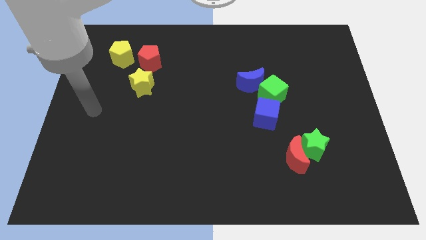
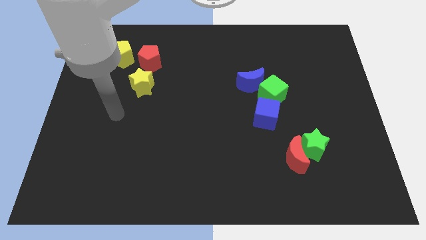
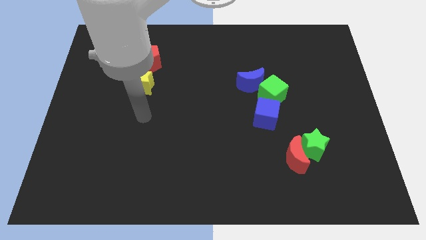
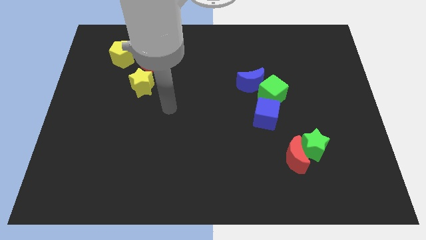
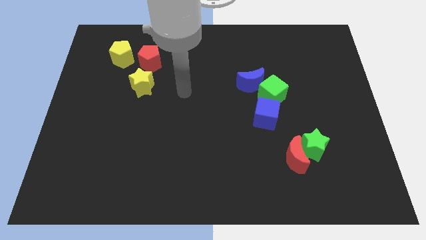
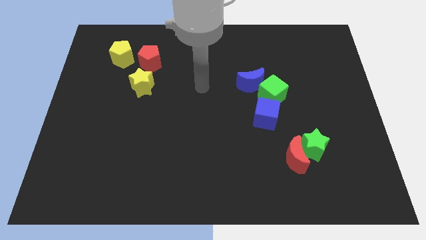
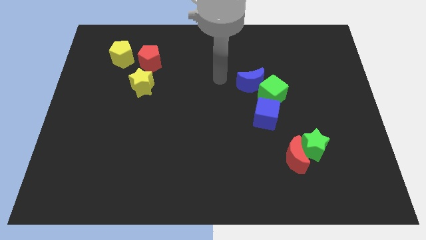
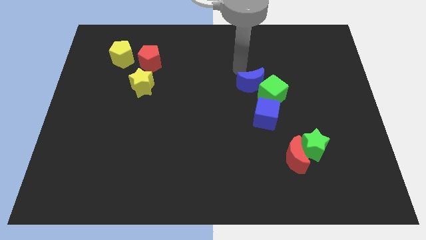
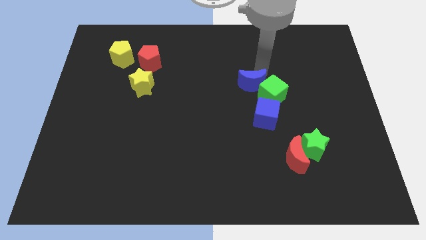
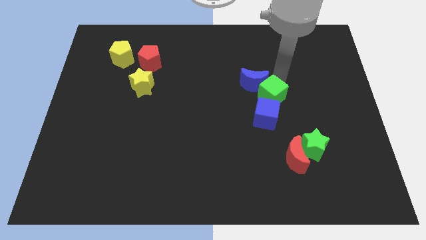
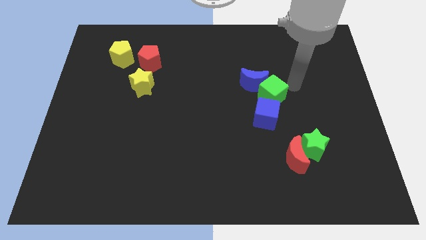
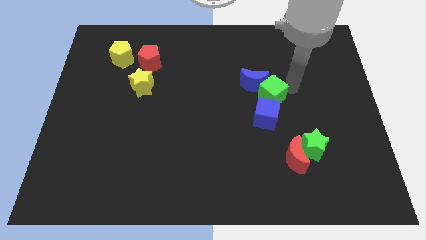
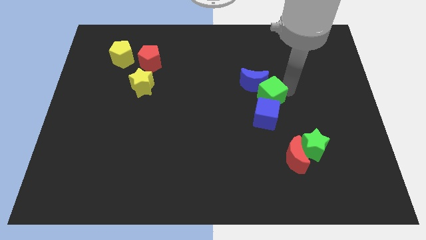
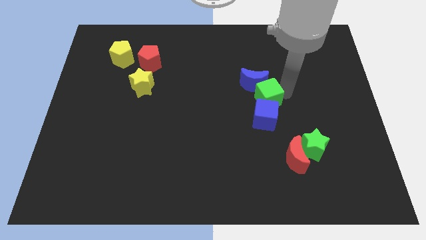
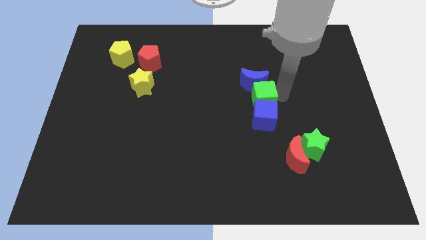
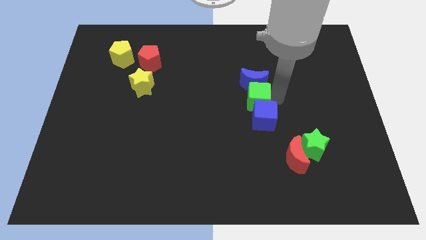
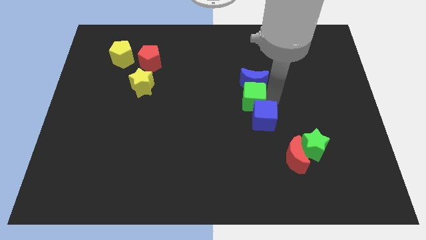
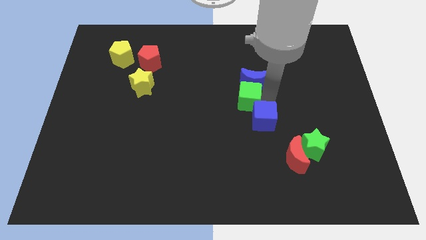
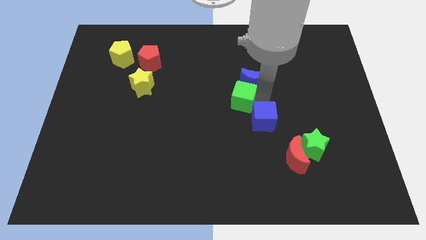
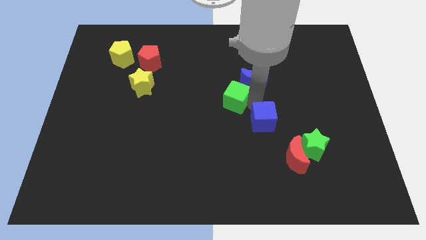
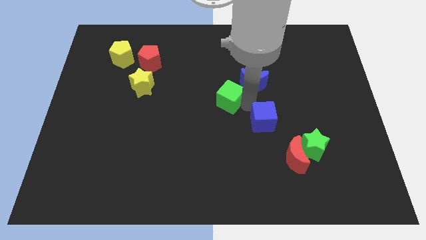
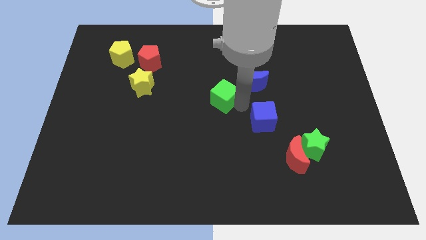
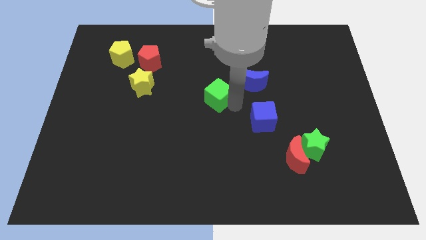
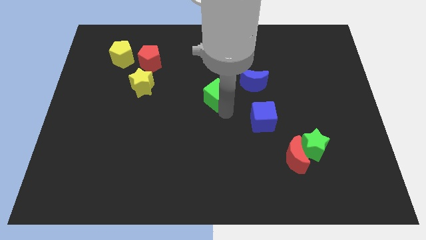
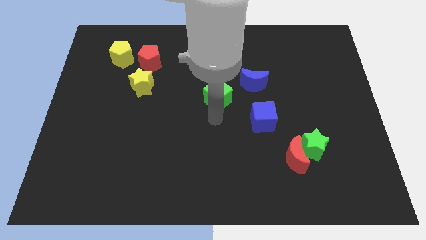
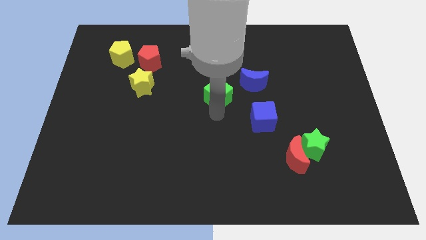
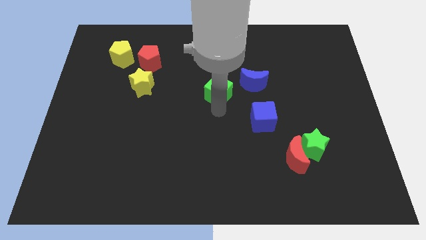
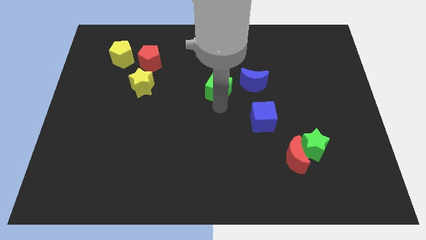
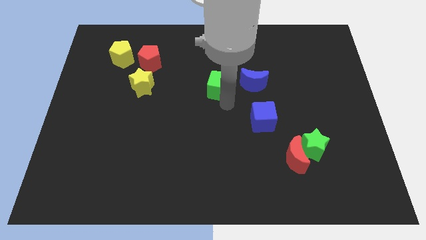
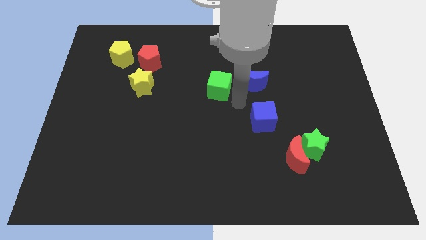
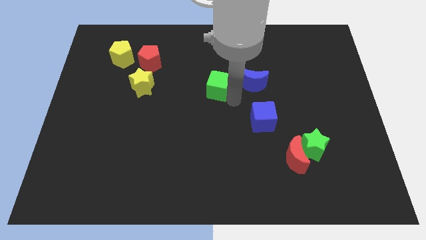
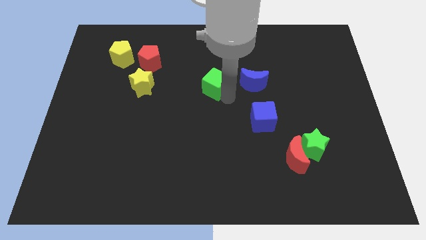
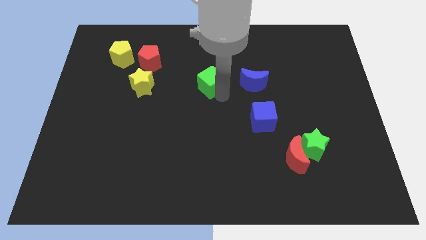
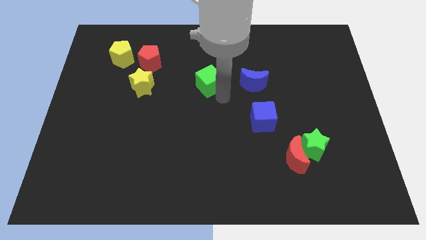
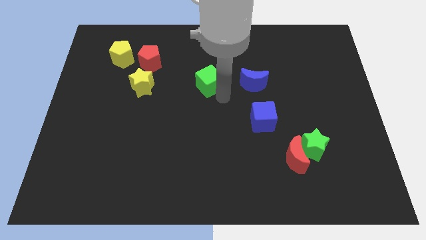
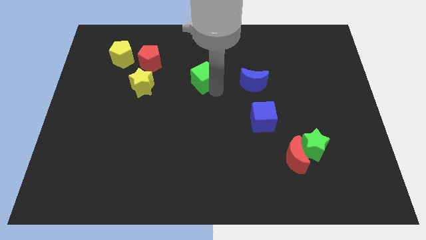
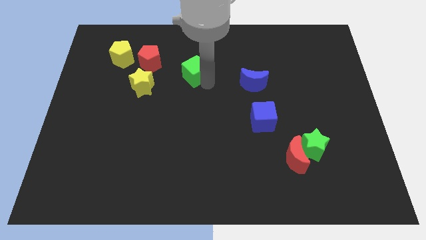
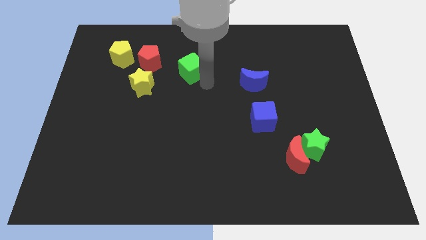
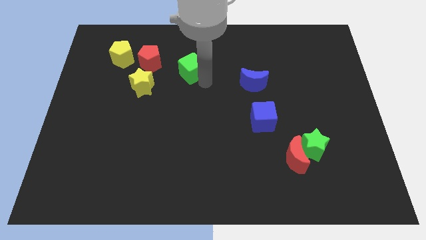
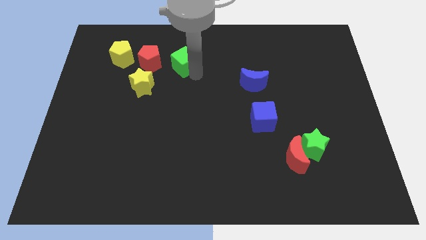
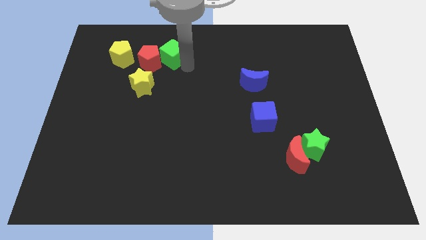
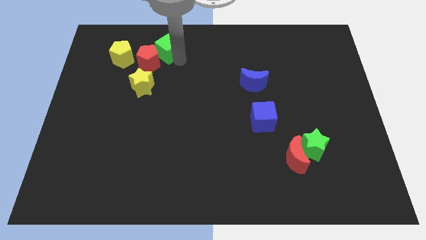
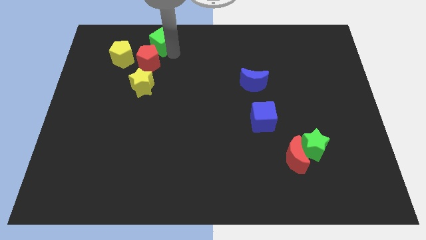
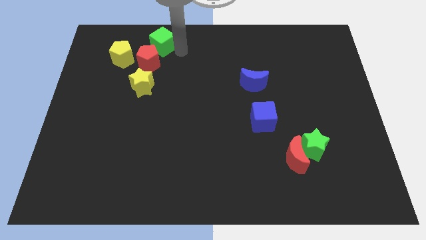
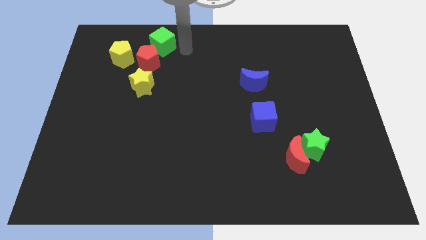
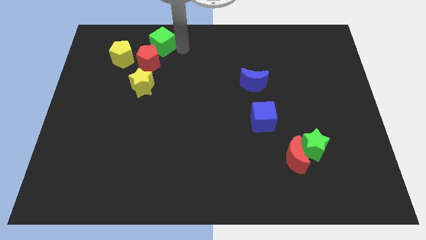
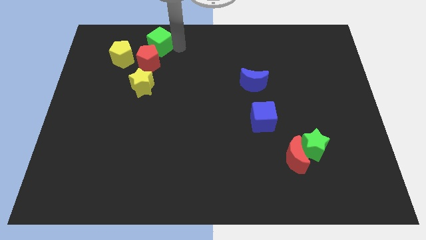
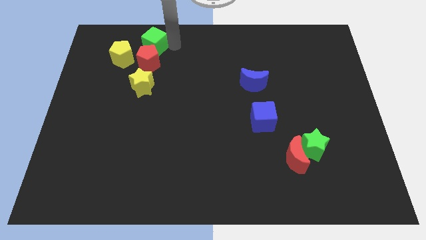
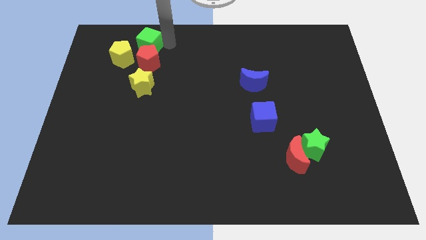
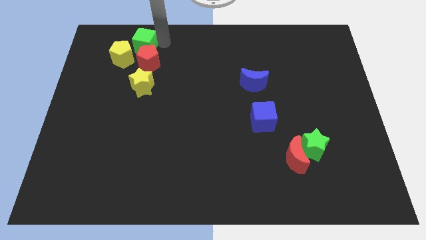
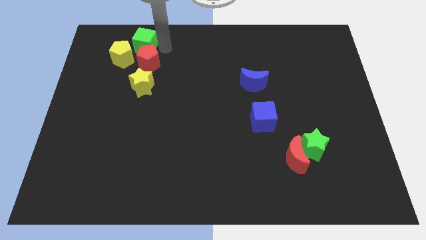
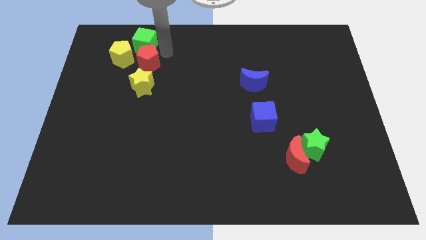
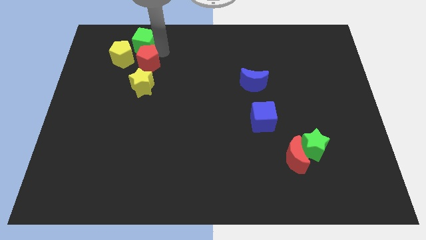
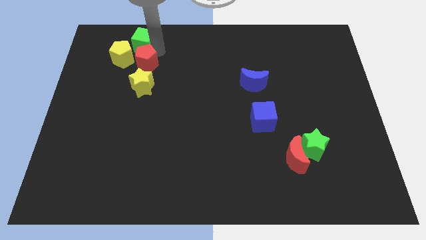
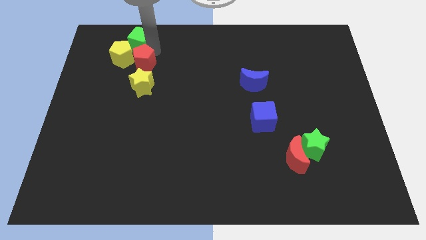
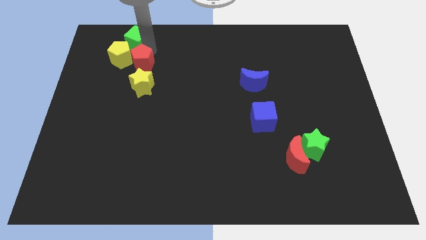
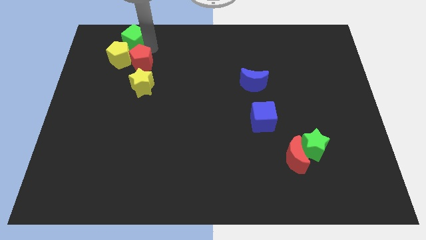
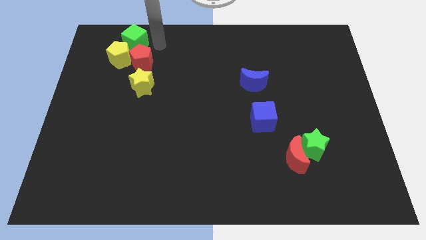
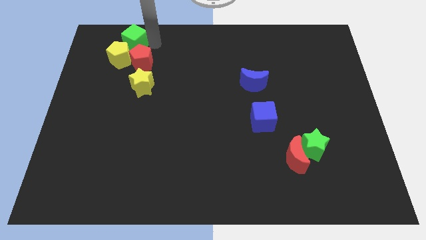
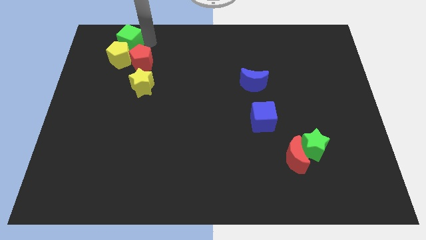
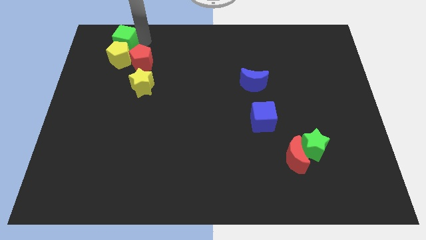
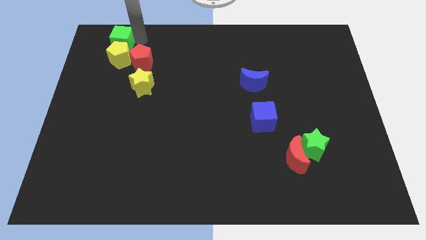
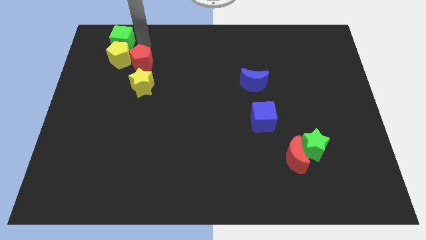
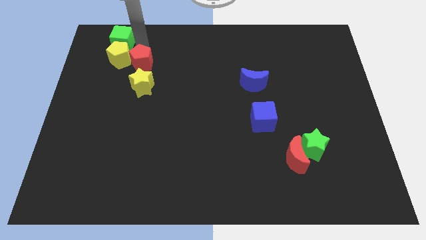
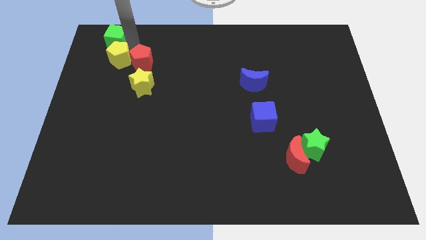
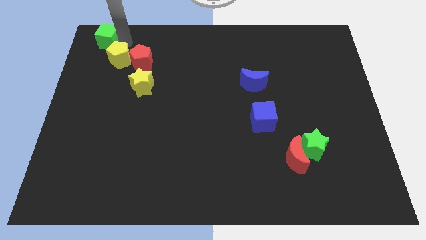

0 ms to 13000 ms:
move the green cube to the top left
